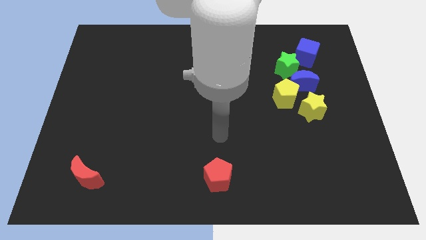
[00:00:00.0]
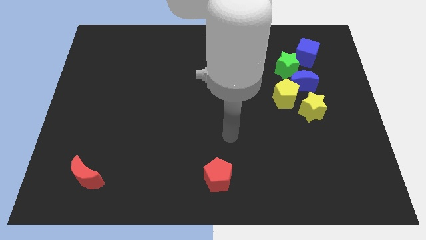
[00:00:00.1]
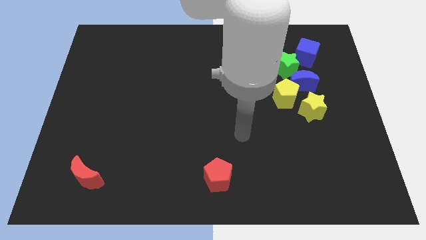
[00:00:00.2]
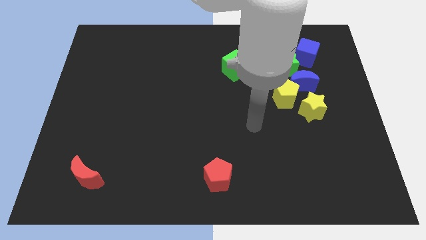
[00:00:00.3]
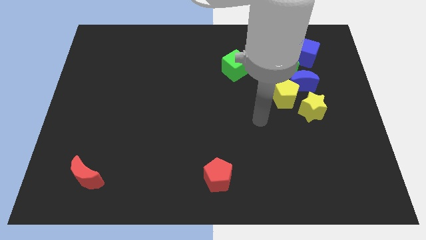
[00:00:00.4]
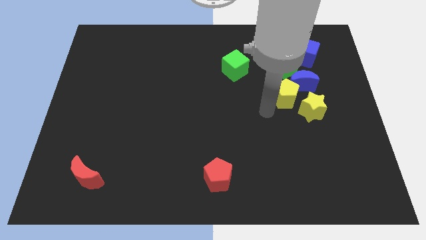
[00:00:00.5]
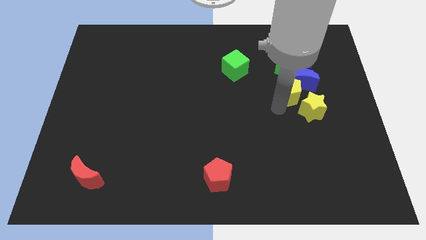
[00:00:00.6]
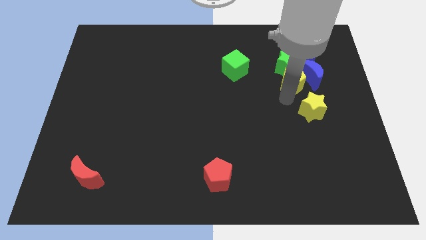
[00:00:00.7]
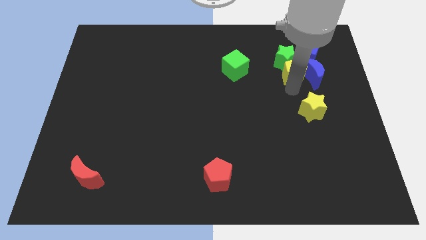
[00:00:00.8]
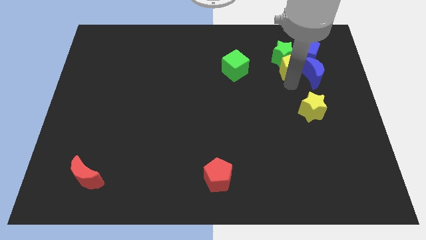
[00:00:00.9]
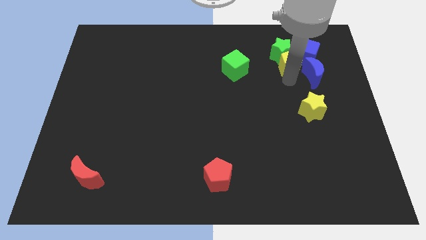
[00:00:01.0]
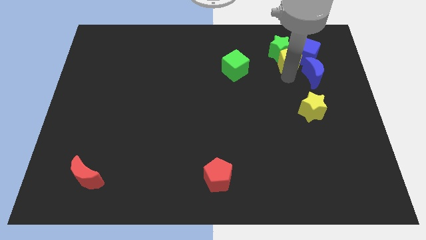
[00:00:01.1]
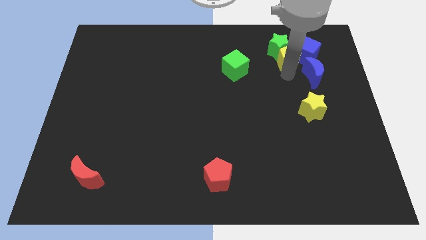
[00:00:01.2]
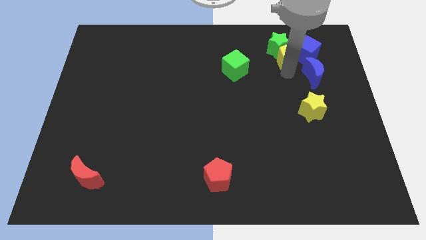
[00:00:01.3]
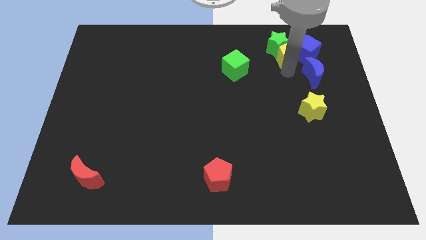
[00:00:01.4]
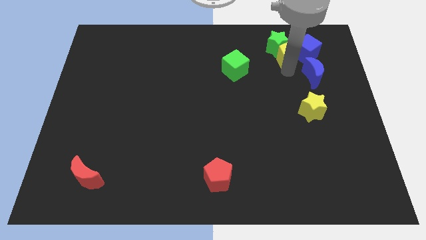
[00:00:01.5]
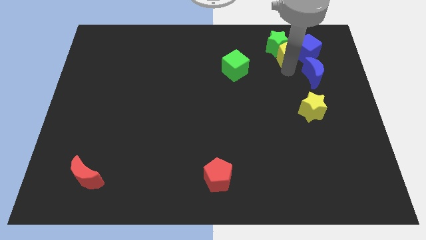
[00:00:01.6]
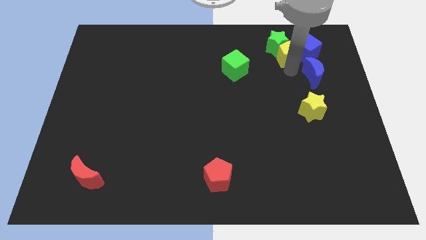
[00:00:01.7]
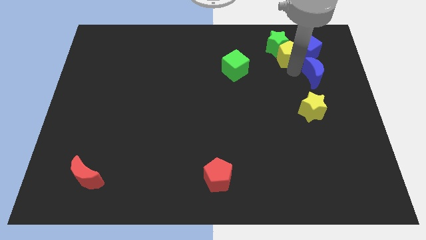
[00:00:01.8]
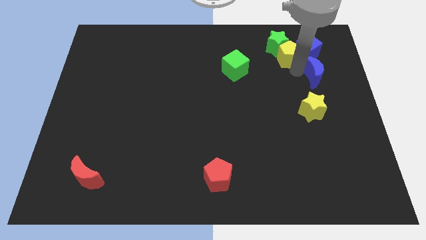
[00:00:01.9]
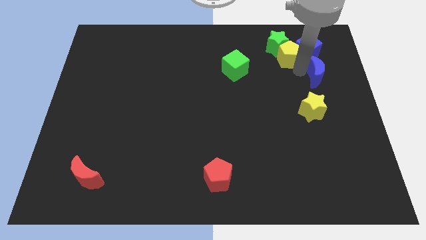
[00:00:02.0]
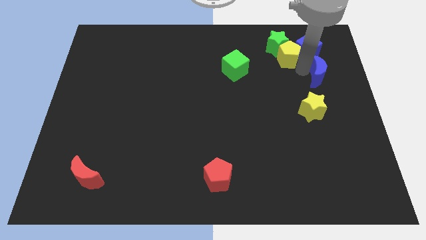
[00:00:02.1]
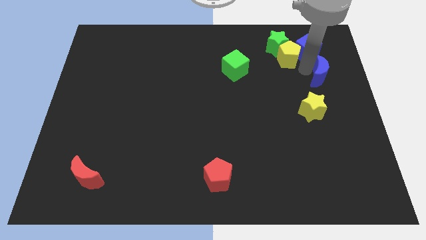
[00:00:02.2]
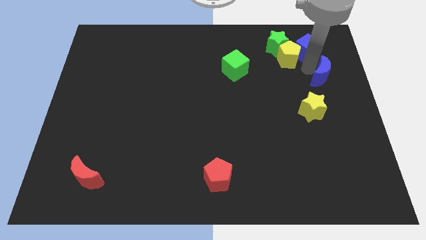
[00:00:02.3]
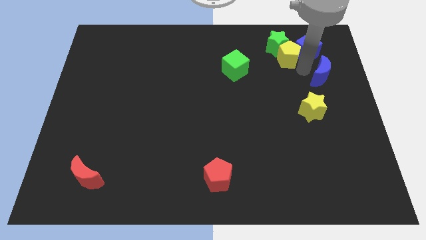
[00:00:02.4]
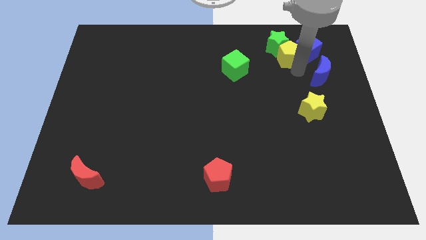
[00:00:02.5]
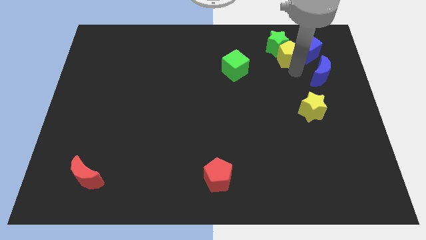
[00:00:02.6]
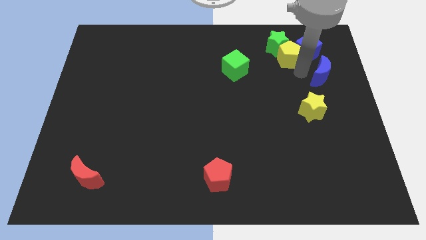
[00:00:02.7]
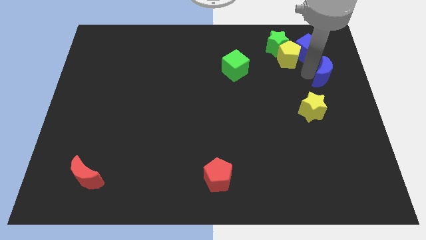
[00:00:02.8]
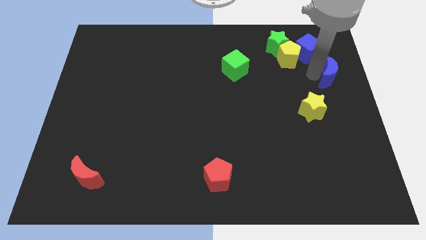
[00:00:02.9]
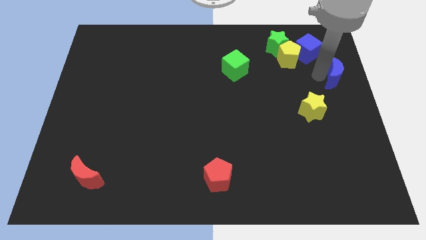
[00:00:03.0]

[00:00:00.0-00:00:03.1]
move the blue moon away from the yellow pentagon, green star, and yellow star

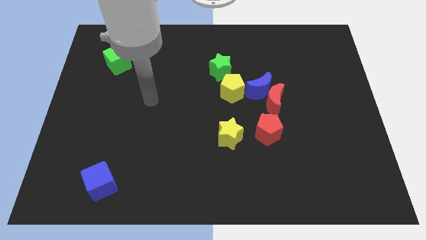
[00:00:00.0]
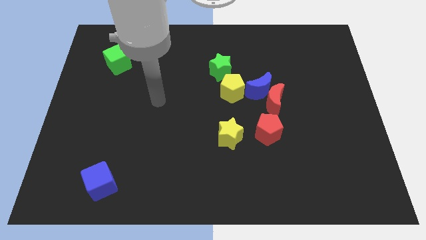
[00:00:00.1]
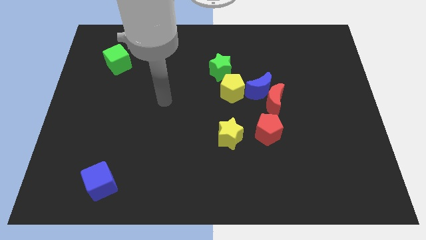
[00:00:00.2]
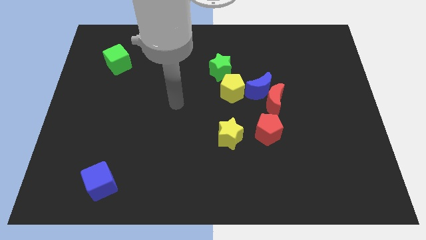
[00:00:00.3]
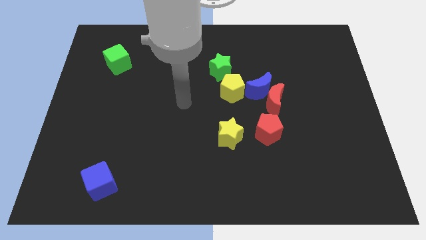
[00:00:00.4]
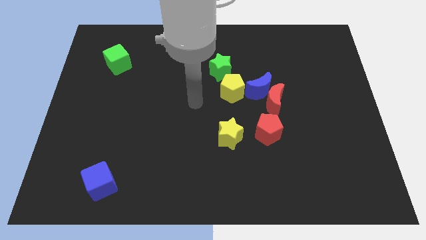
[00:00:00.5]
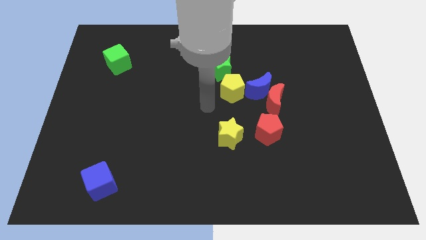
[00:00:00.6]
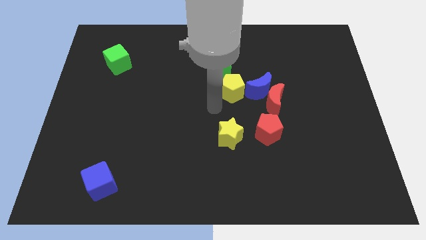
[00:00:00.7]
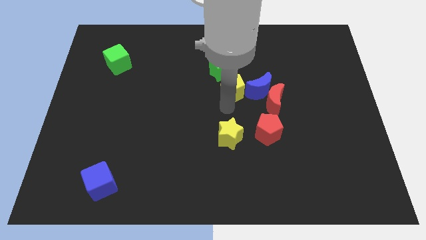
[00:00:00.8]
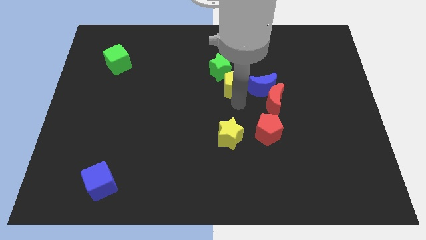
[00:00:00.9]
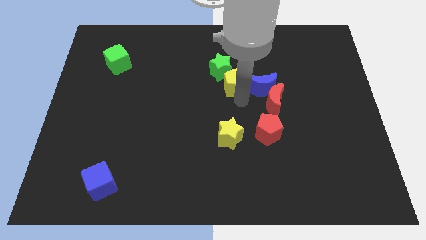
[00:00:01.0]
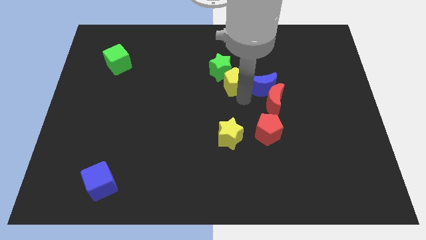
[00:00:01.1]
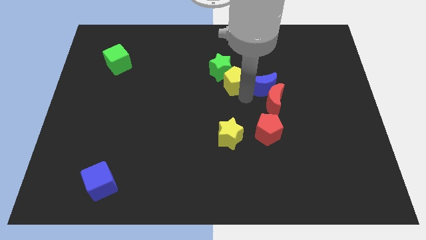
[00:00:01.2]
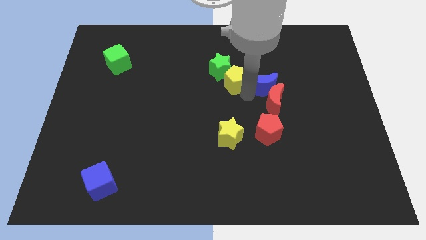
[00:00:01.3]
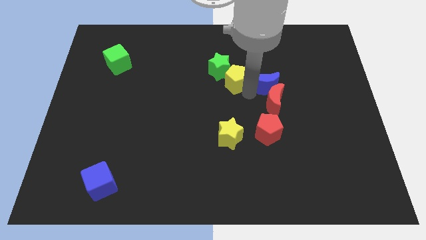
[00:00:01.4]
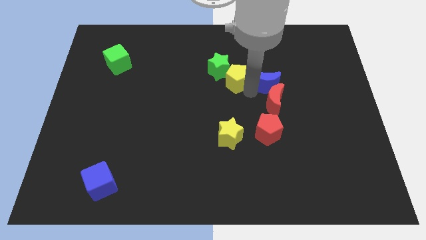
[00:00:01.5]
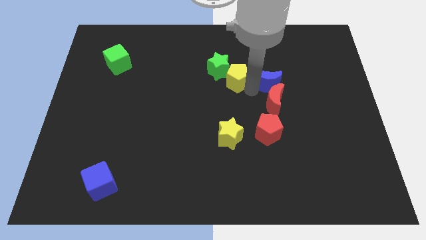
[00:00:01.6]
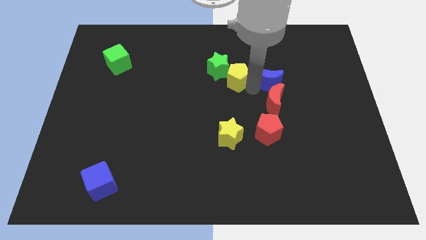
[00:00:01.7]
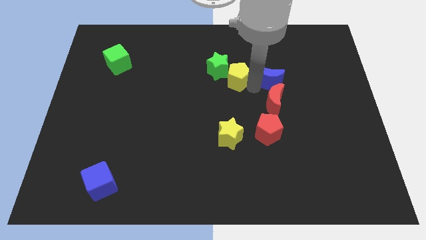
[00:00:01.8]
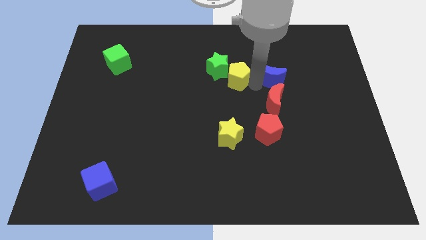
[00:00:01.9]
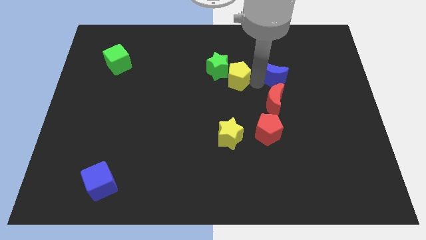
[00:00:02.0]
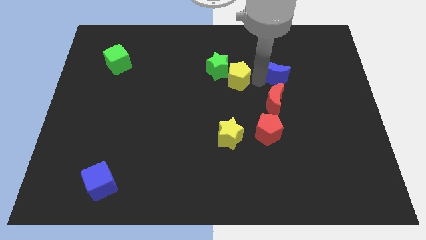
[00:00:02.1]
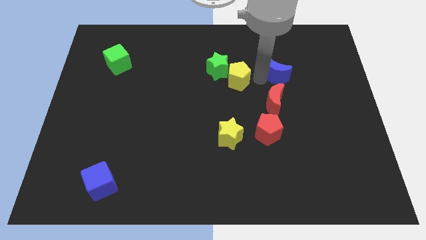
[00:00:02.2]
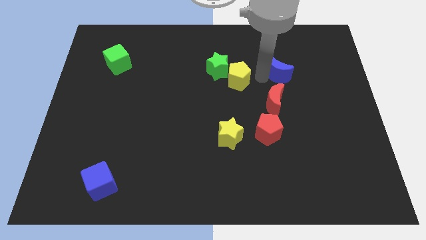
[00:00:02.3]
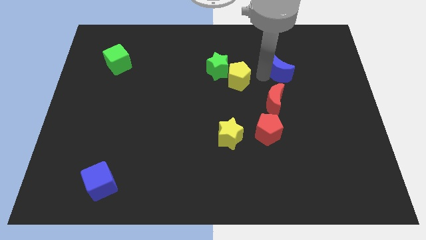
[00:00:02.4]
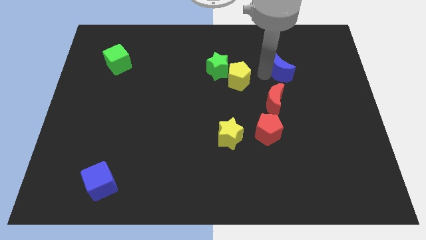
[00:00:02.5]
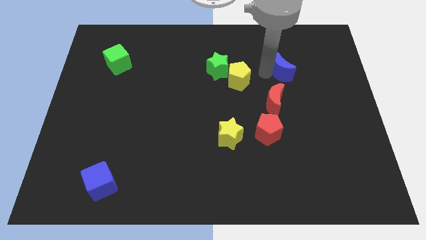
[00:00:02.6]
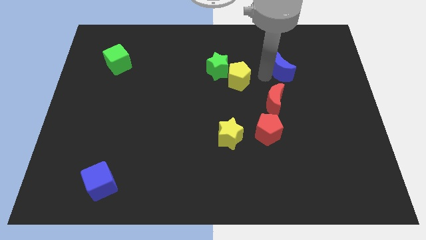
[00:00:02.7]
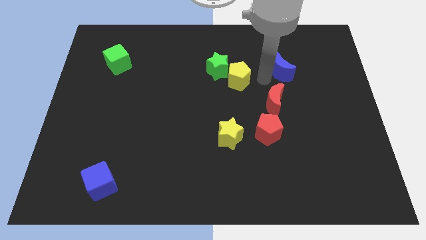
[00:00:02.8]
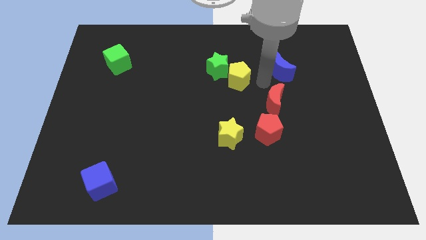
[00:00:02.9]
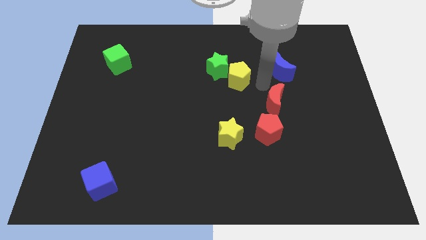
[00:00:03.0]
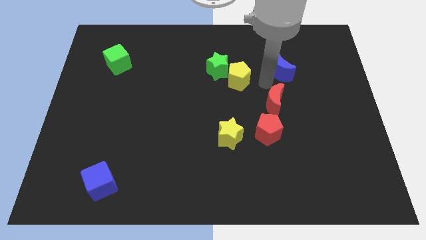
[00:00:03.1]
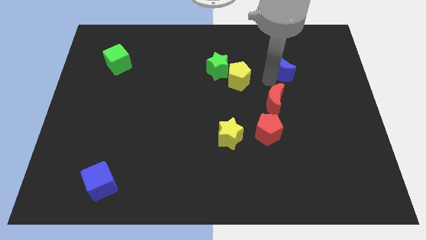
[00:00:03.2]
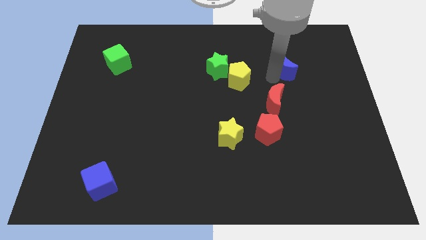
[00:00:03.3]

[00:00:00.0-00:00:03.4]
separate the blue moon from the red moon and yellow pentagon

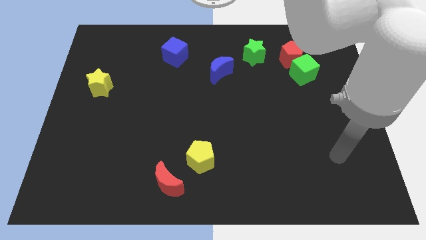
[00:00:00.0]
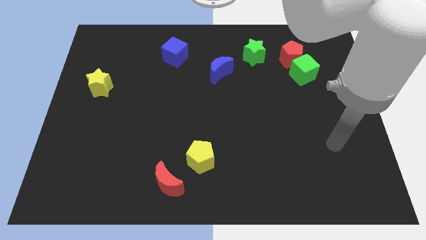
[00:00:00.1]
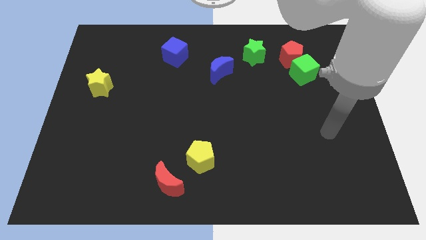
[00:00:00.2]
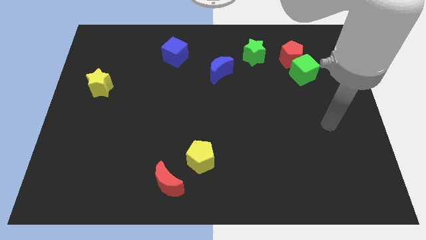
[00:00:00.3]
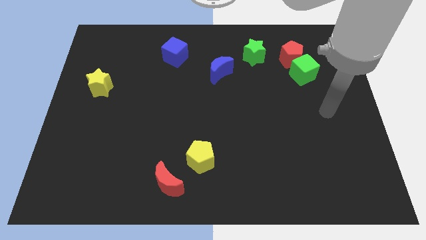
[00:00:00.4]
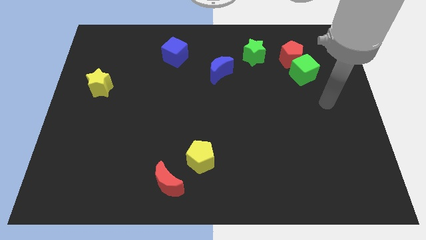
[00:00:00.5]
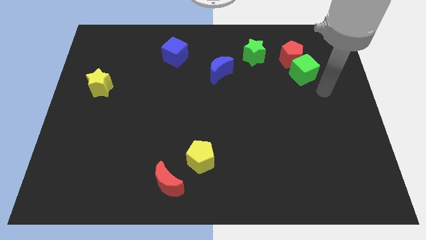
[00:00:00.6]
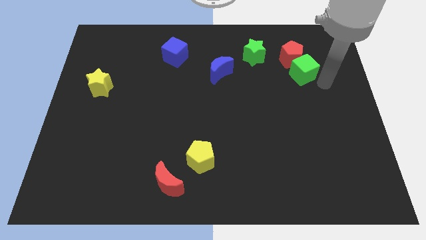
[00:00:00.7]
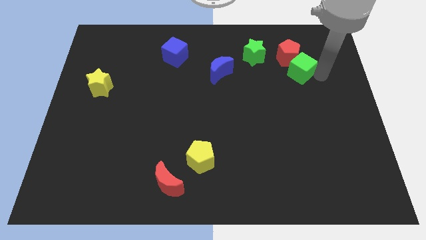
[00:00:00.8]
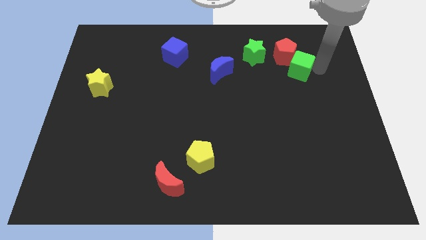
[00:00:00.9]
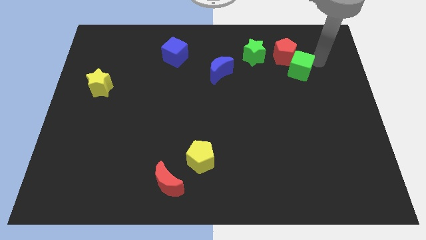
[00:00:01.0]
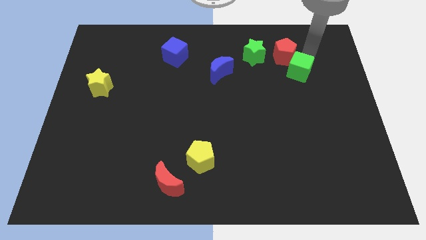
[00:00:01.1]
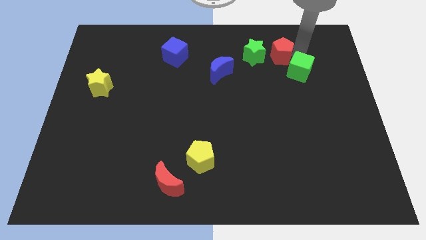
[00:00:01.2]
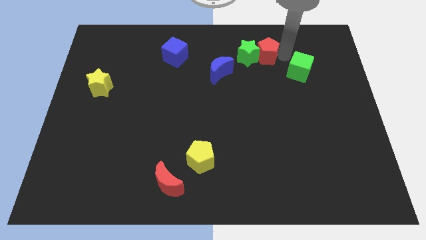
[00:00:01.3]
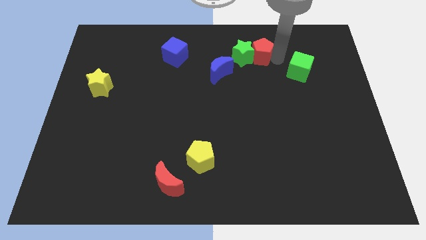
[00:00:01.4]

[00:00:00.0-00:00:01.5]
pull the green cube apart from the red pentagon

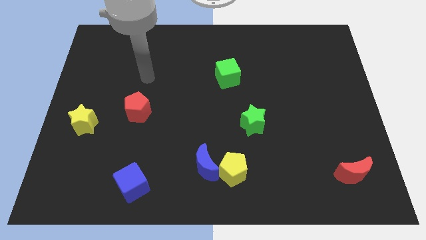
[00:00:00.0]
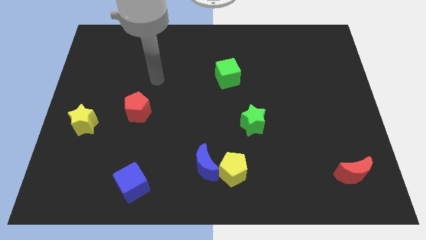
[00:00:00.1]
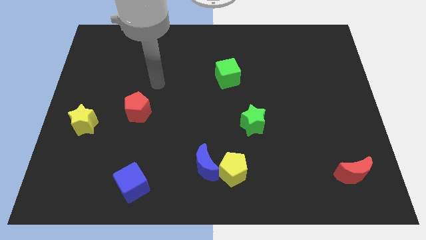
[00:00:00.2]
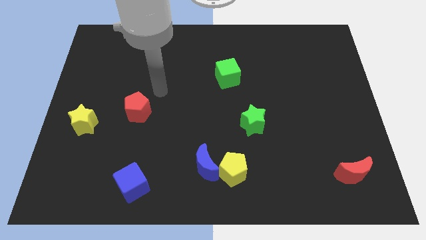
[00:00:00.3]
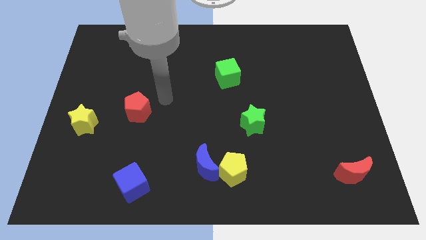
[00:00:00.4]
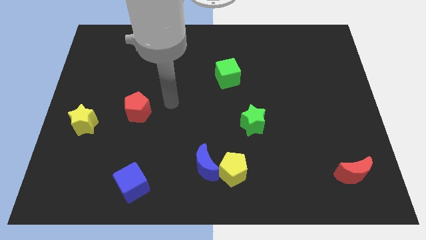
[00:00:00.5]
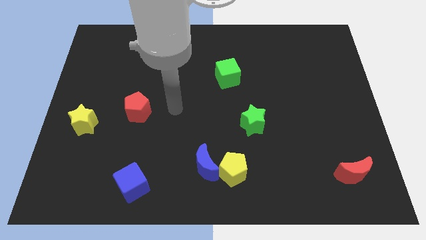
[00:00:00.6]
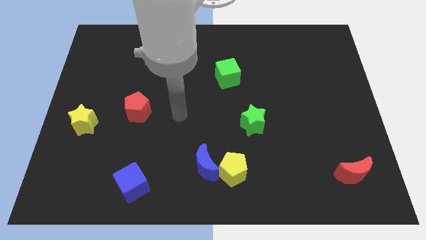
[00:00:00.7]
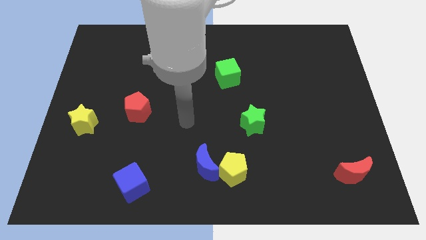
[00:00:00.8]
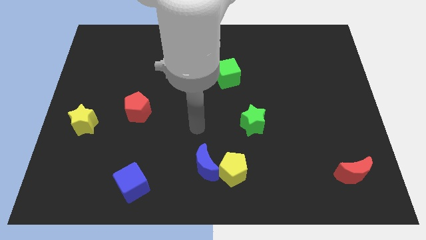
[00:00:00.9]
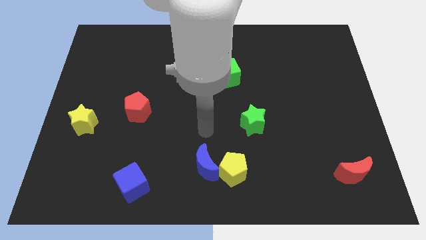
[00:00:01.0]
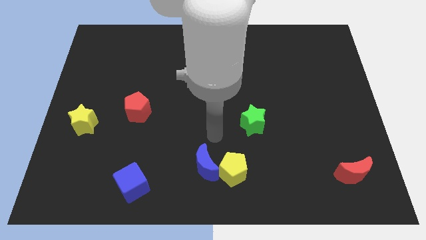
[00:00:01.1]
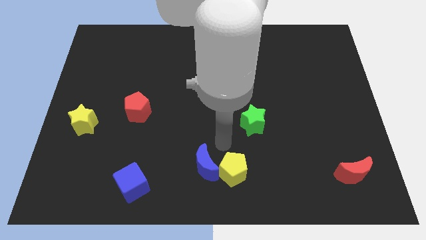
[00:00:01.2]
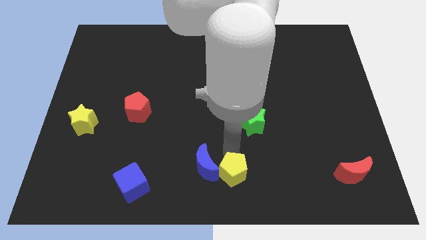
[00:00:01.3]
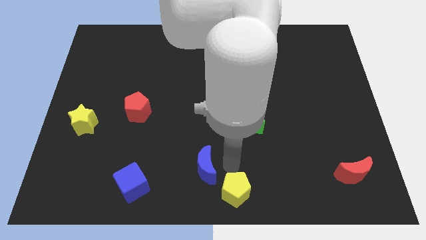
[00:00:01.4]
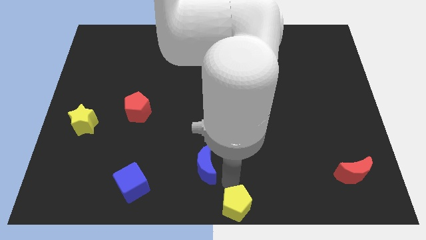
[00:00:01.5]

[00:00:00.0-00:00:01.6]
pull the blue moon apart from the yellow pentagon
